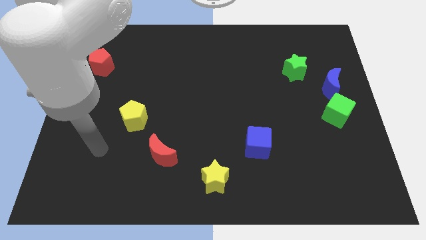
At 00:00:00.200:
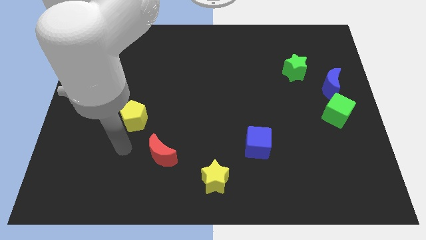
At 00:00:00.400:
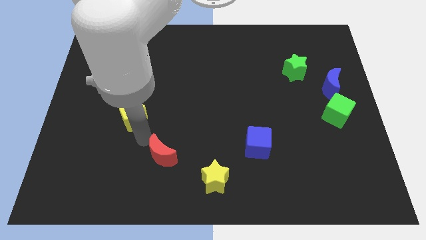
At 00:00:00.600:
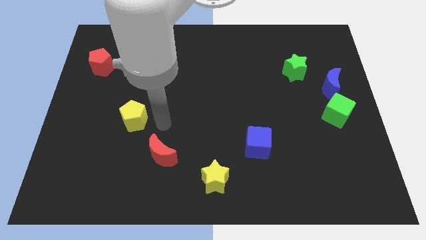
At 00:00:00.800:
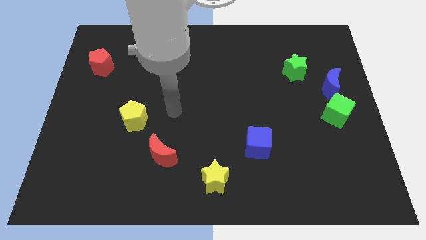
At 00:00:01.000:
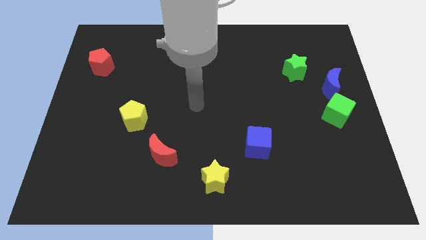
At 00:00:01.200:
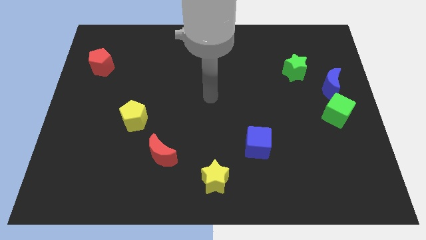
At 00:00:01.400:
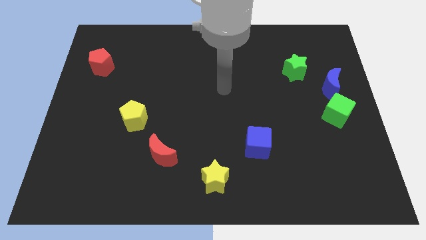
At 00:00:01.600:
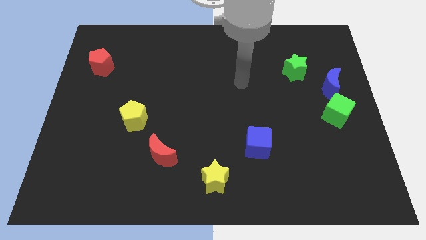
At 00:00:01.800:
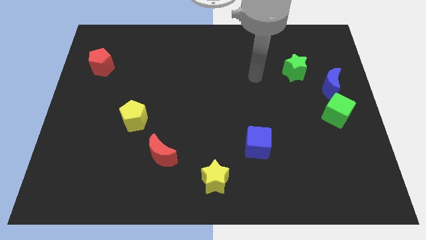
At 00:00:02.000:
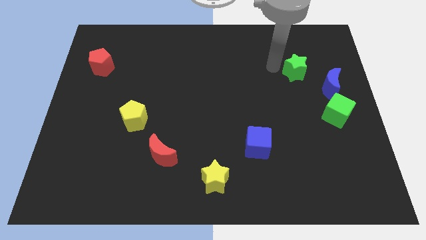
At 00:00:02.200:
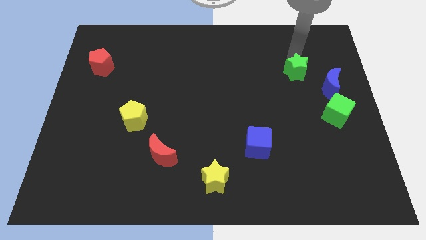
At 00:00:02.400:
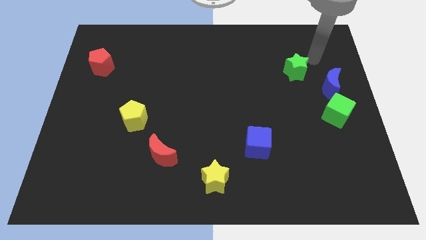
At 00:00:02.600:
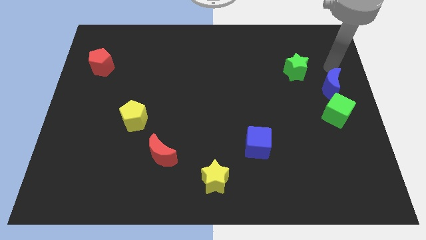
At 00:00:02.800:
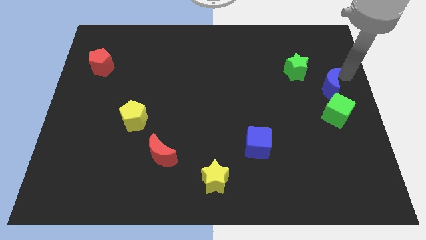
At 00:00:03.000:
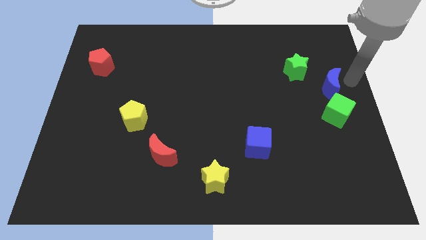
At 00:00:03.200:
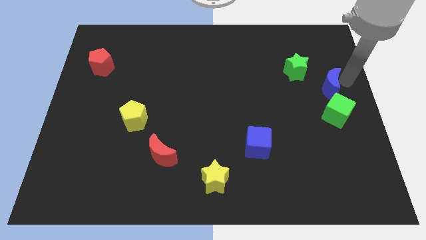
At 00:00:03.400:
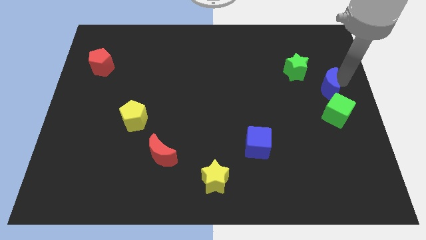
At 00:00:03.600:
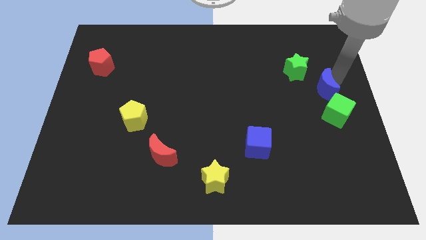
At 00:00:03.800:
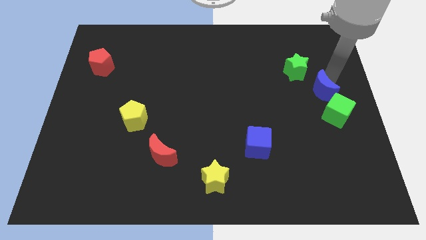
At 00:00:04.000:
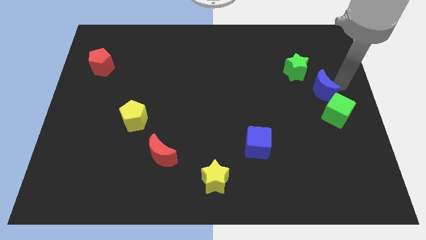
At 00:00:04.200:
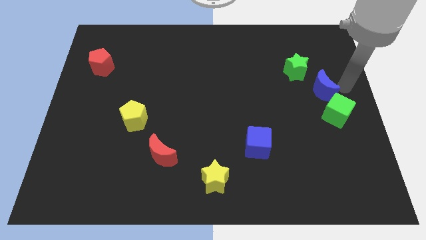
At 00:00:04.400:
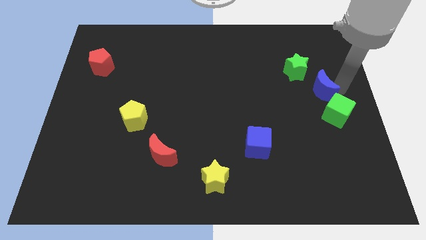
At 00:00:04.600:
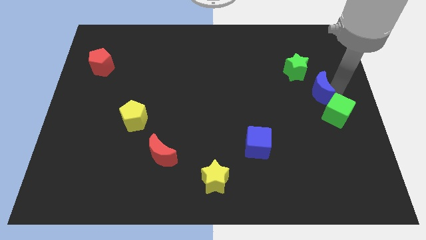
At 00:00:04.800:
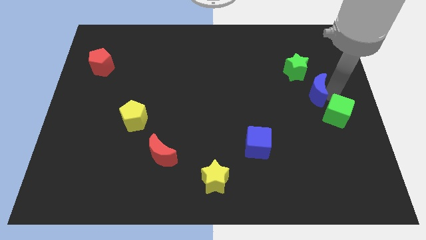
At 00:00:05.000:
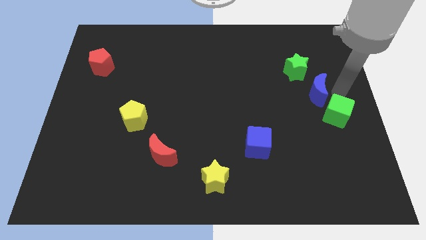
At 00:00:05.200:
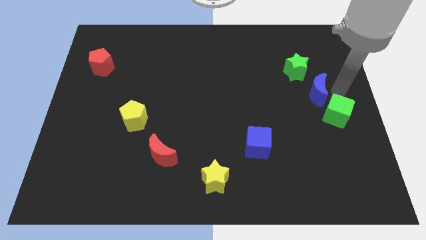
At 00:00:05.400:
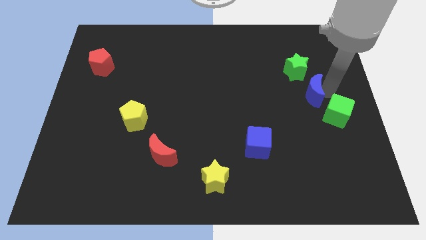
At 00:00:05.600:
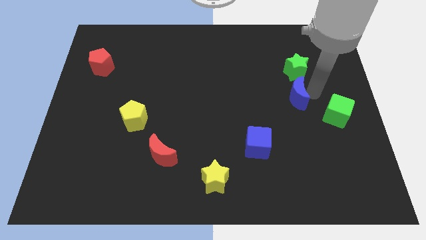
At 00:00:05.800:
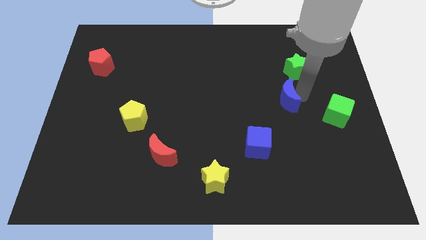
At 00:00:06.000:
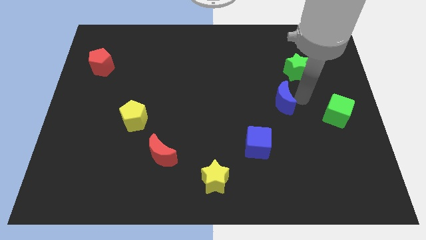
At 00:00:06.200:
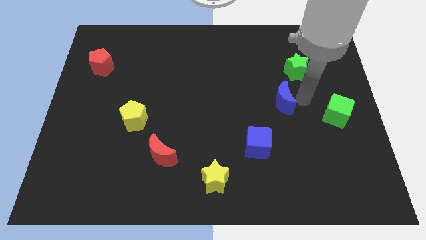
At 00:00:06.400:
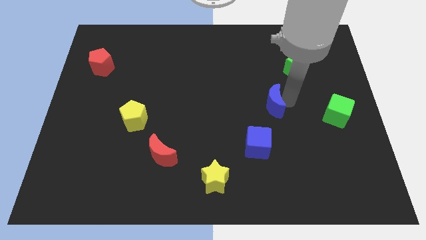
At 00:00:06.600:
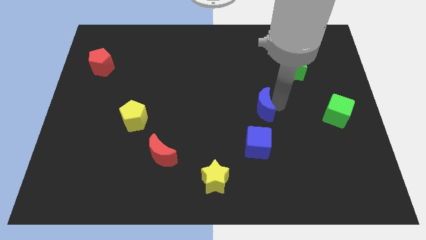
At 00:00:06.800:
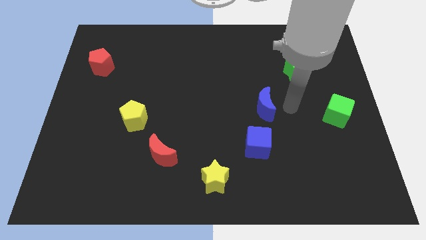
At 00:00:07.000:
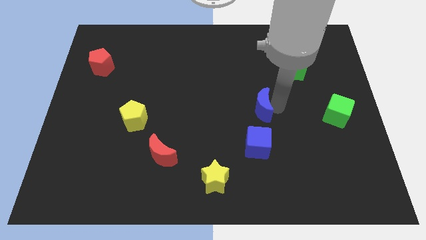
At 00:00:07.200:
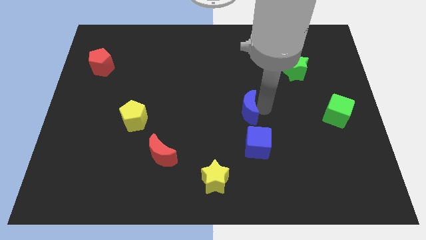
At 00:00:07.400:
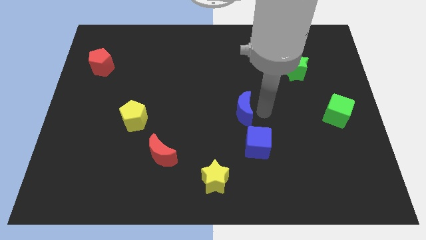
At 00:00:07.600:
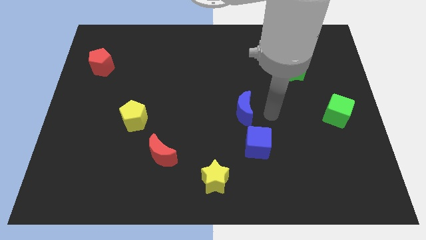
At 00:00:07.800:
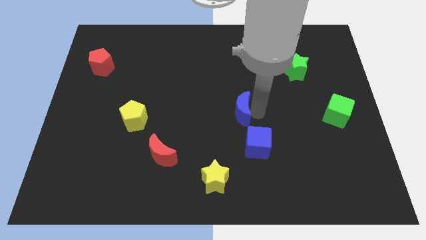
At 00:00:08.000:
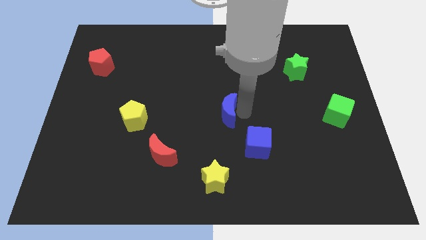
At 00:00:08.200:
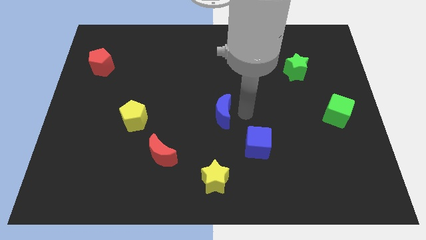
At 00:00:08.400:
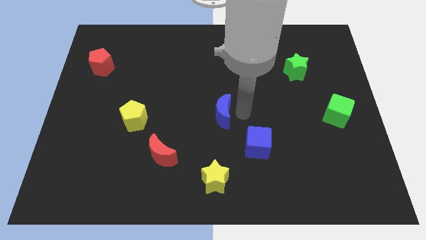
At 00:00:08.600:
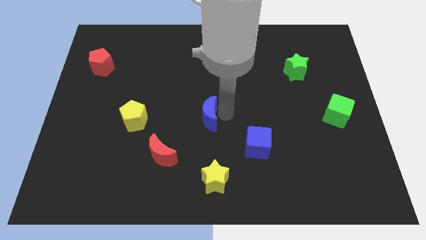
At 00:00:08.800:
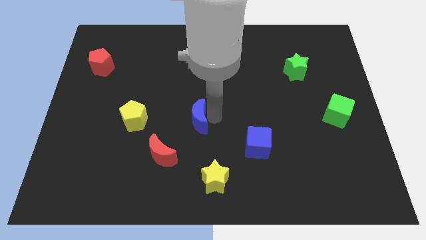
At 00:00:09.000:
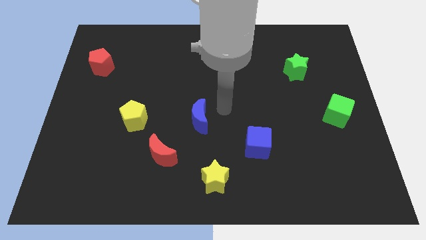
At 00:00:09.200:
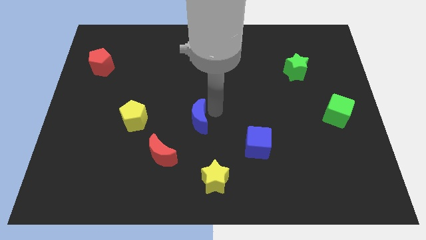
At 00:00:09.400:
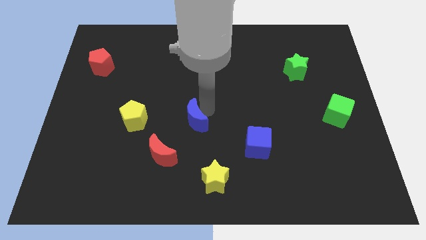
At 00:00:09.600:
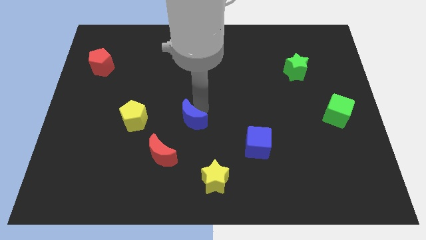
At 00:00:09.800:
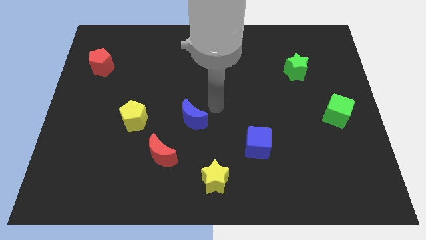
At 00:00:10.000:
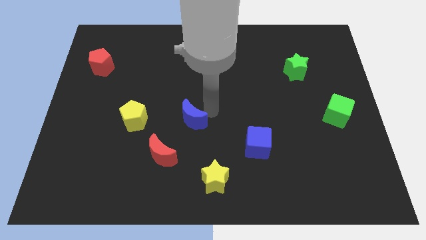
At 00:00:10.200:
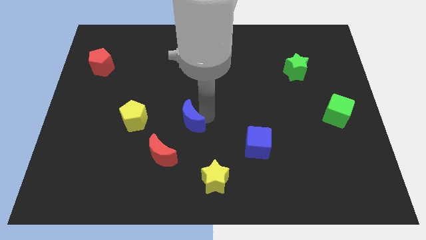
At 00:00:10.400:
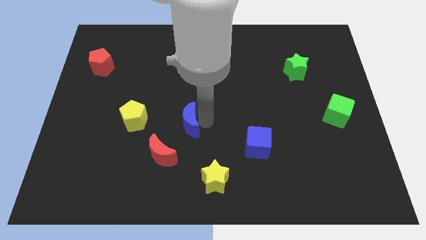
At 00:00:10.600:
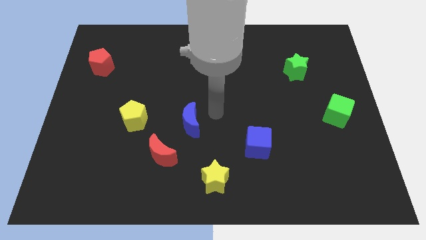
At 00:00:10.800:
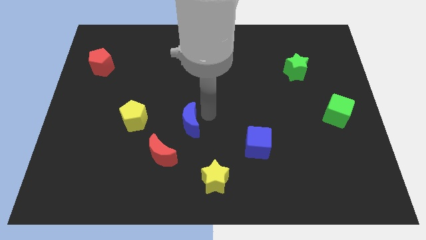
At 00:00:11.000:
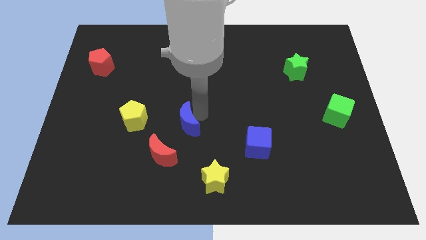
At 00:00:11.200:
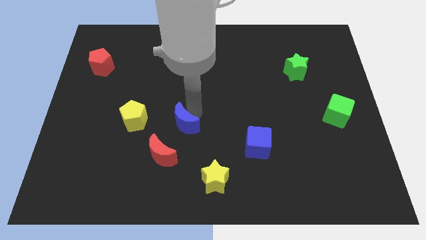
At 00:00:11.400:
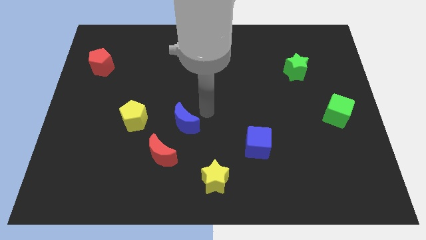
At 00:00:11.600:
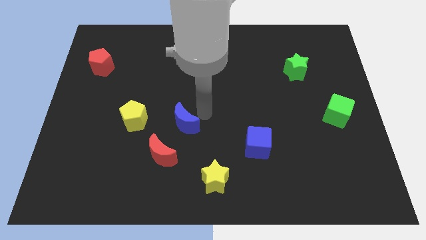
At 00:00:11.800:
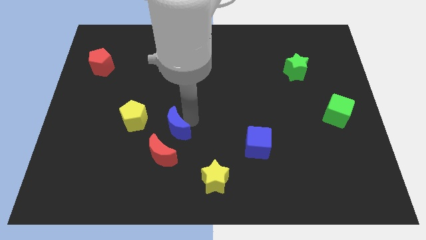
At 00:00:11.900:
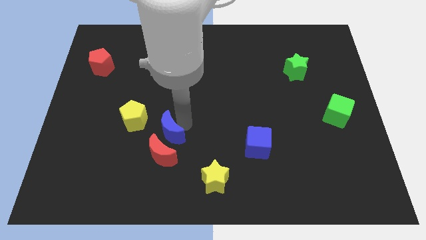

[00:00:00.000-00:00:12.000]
slide the blue moon to the bottom right of the yellow pentagon
